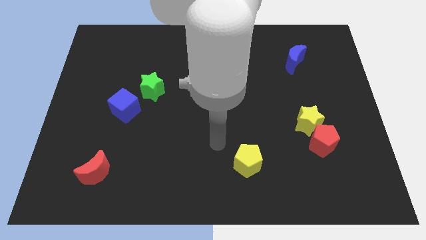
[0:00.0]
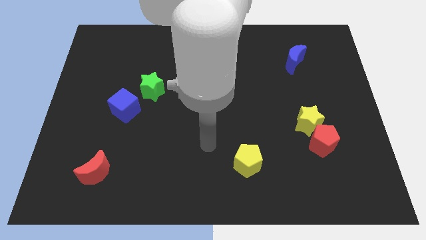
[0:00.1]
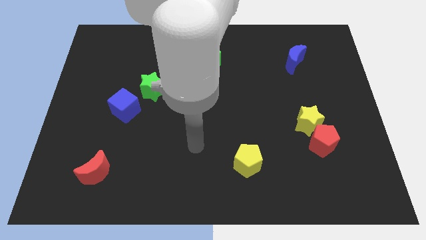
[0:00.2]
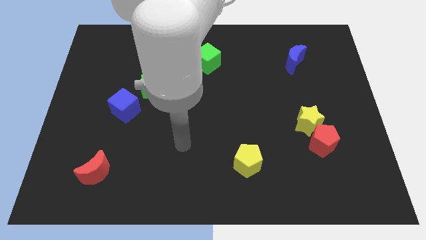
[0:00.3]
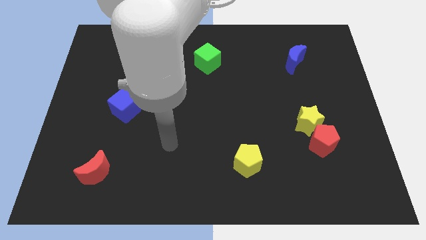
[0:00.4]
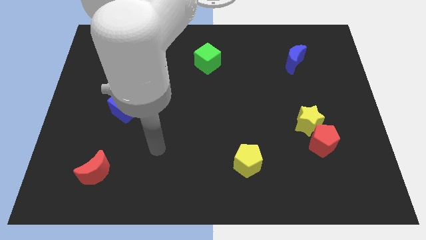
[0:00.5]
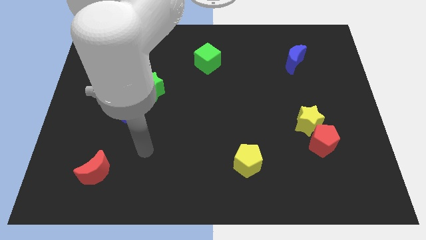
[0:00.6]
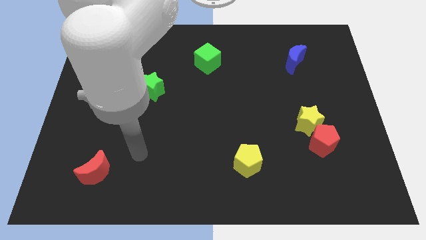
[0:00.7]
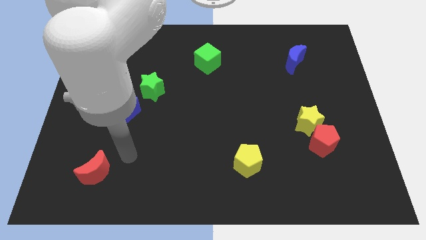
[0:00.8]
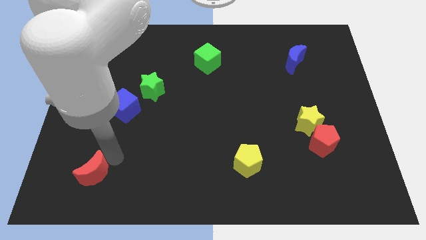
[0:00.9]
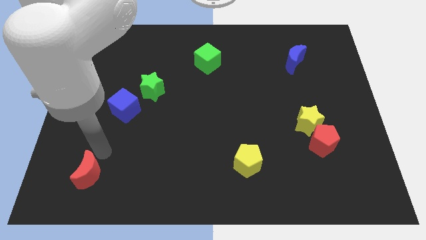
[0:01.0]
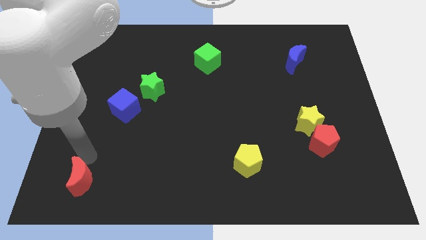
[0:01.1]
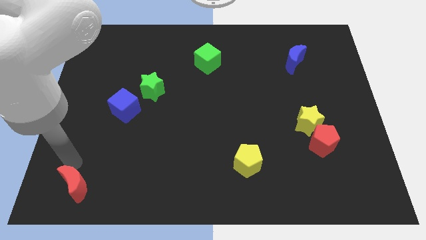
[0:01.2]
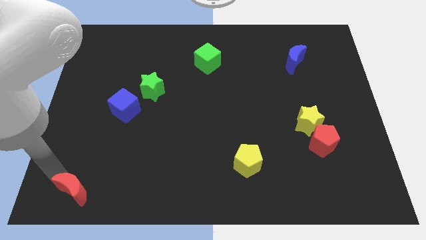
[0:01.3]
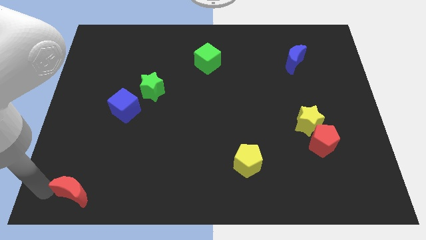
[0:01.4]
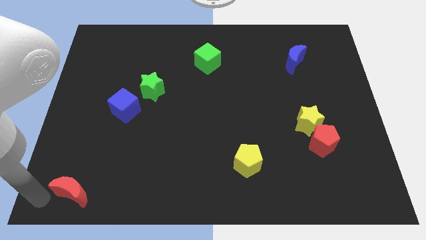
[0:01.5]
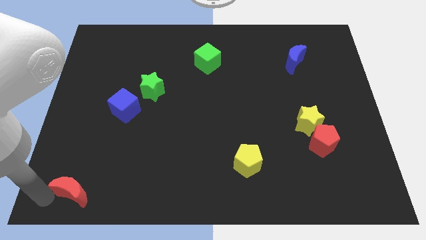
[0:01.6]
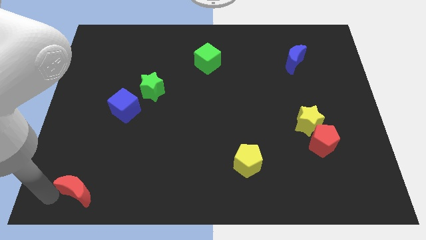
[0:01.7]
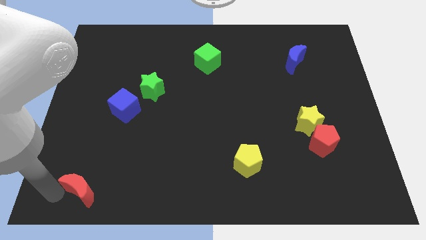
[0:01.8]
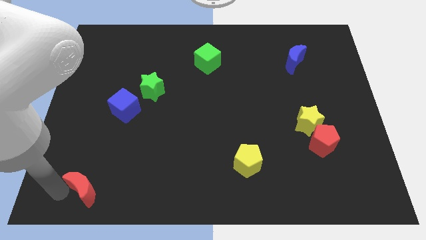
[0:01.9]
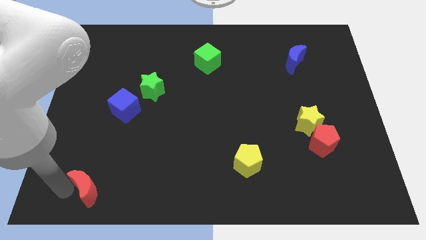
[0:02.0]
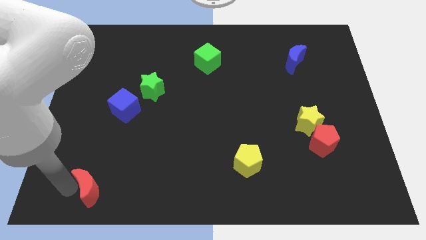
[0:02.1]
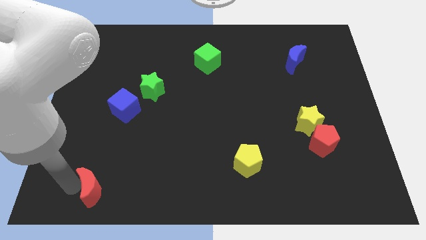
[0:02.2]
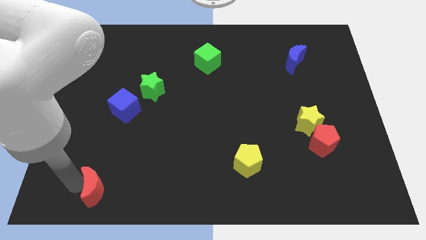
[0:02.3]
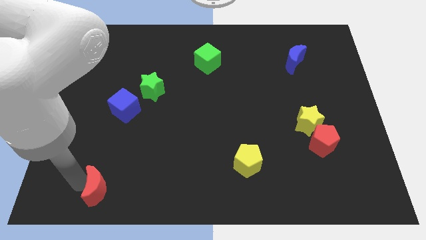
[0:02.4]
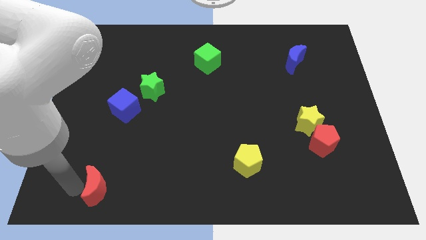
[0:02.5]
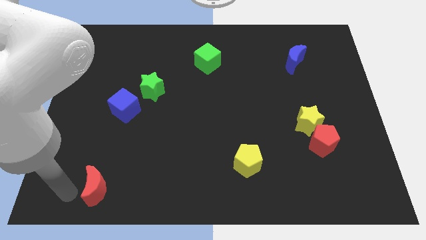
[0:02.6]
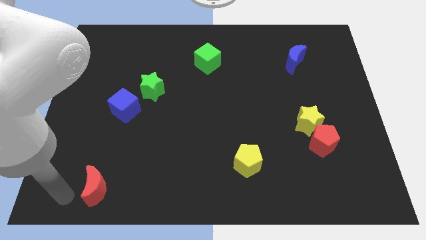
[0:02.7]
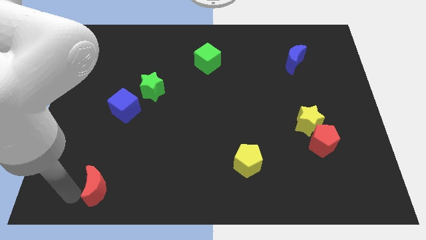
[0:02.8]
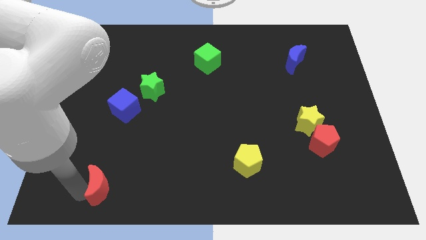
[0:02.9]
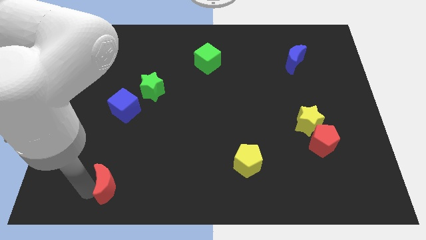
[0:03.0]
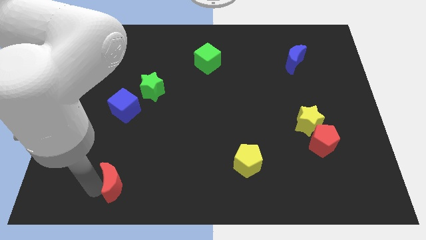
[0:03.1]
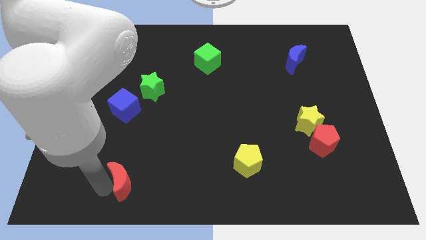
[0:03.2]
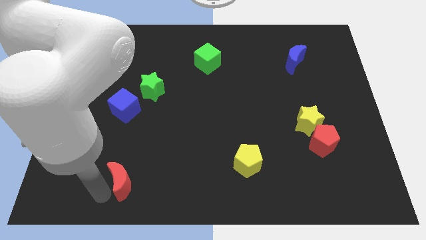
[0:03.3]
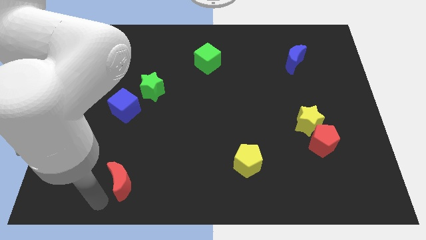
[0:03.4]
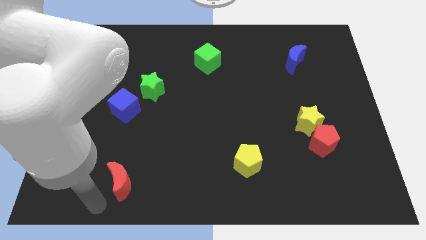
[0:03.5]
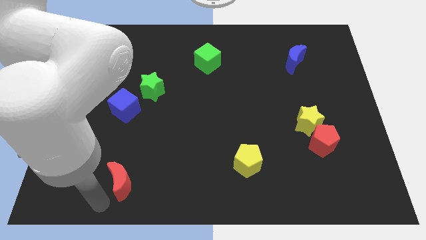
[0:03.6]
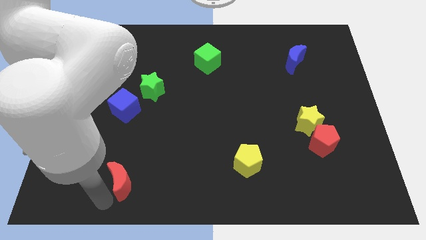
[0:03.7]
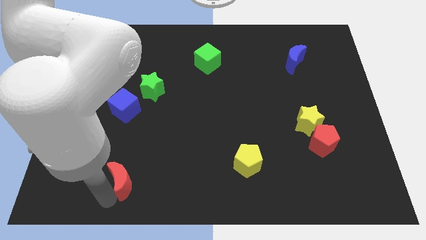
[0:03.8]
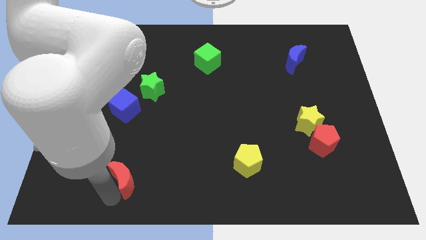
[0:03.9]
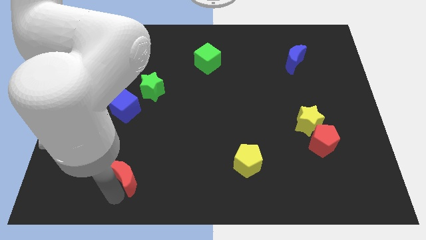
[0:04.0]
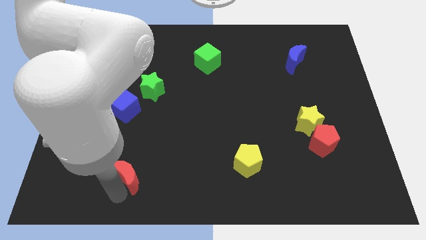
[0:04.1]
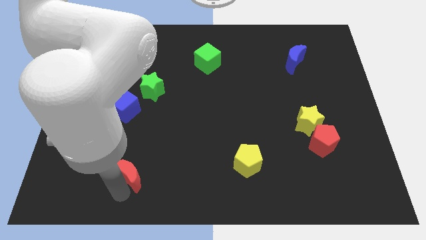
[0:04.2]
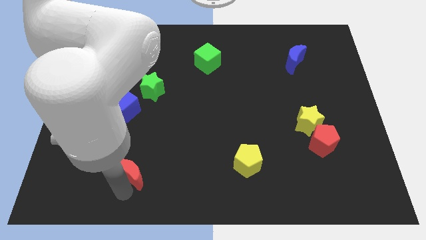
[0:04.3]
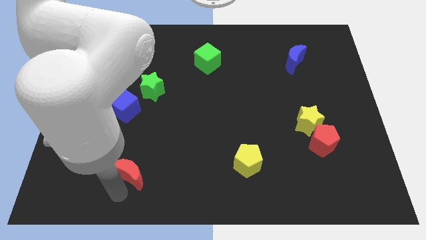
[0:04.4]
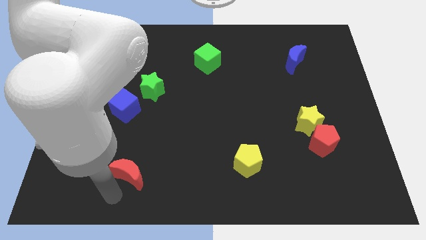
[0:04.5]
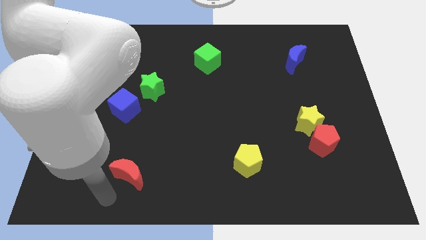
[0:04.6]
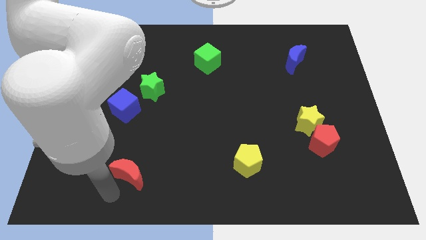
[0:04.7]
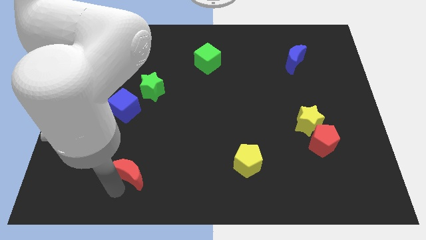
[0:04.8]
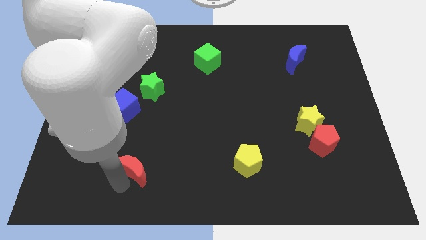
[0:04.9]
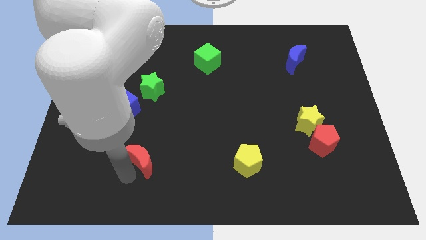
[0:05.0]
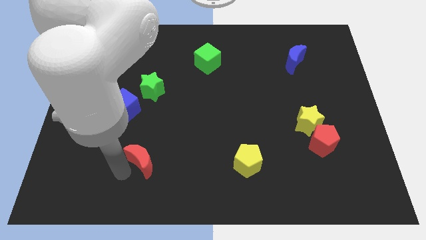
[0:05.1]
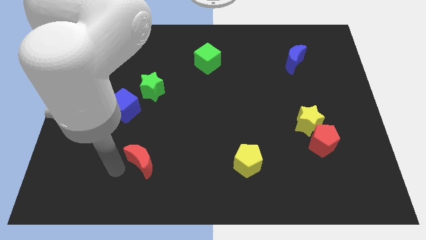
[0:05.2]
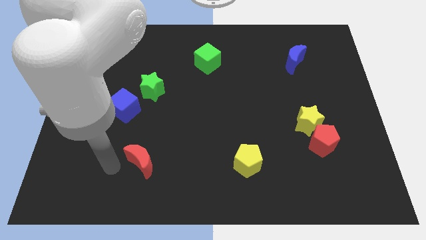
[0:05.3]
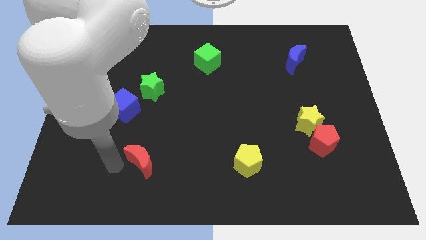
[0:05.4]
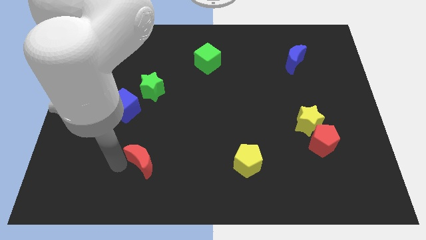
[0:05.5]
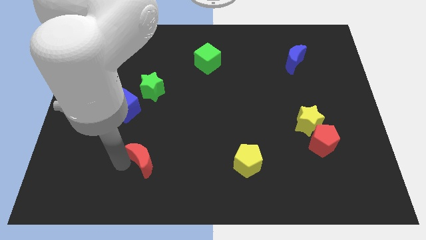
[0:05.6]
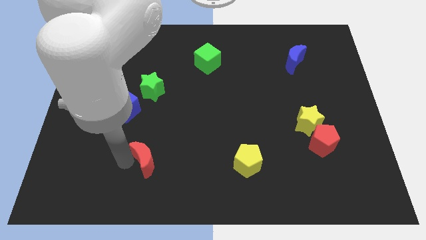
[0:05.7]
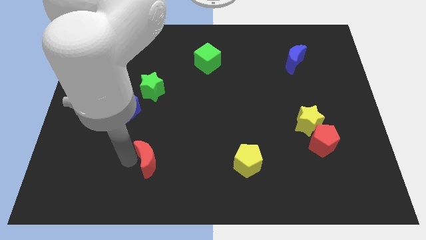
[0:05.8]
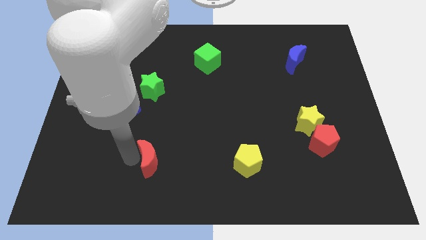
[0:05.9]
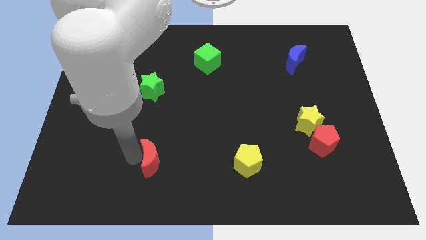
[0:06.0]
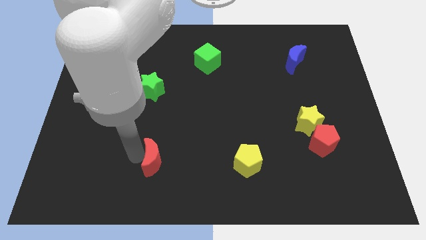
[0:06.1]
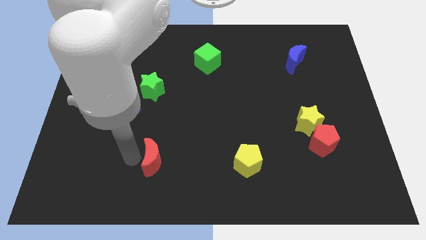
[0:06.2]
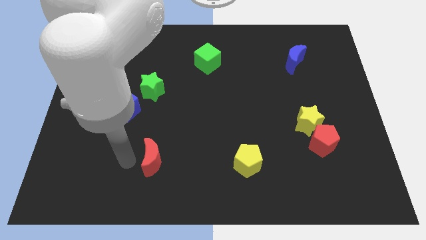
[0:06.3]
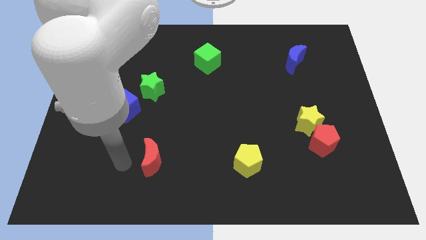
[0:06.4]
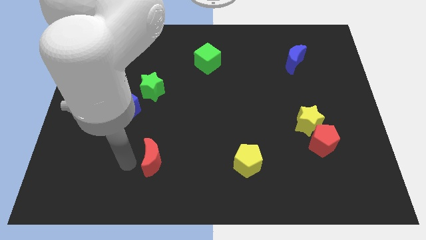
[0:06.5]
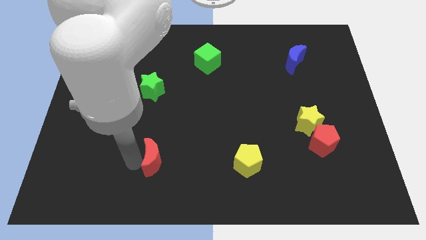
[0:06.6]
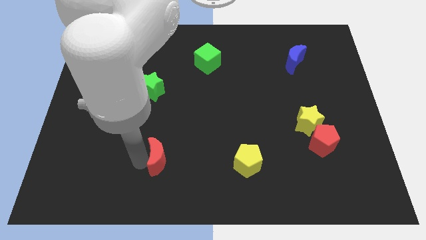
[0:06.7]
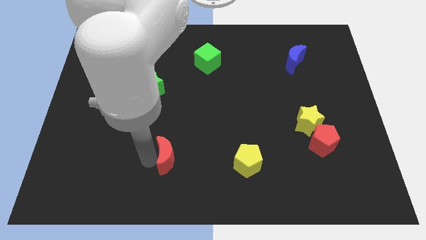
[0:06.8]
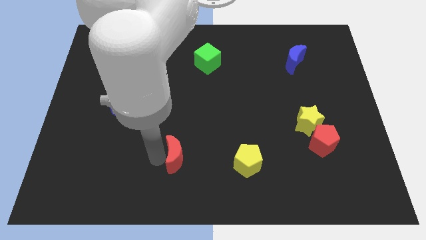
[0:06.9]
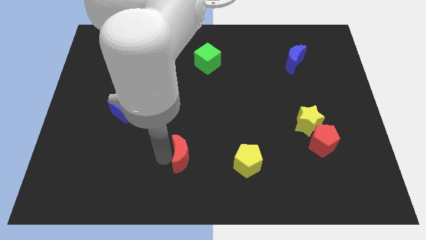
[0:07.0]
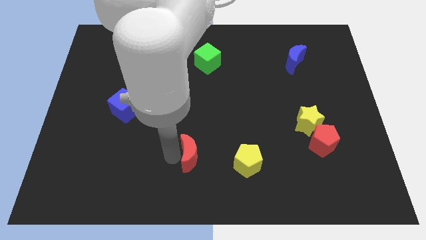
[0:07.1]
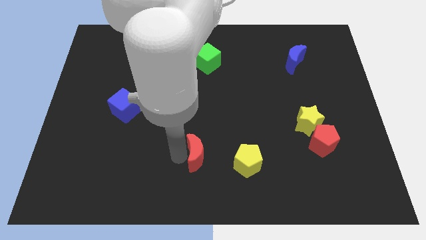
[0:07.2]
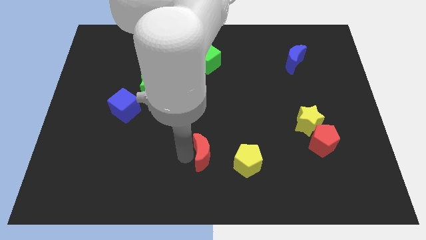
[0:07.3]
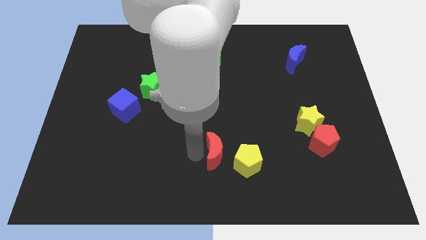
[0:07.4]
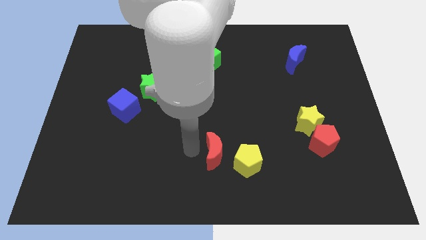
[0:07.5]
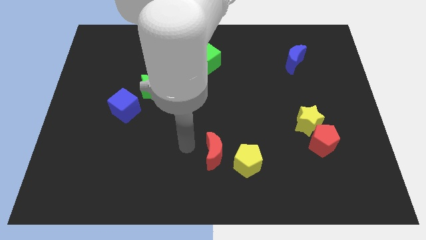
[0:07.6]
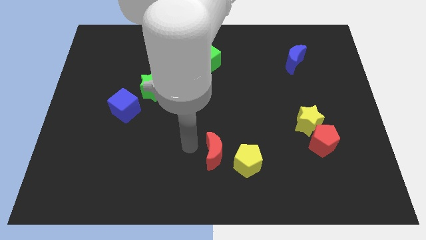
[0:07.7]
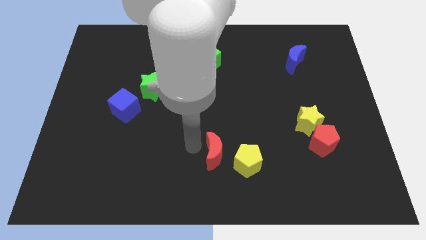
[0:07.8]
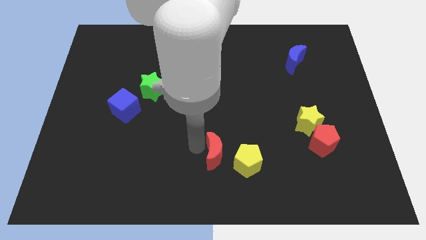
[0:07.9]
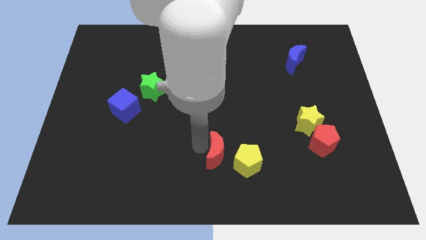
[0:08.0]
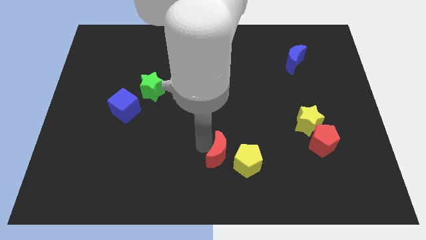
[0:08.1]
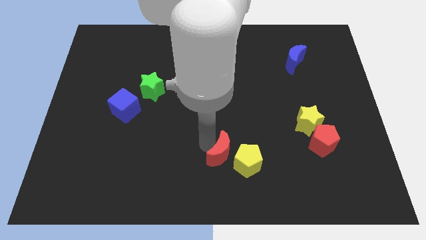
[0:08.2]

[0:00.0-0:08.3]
move the red moon next to the yellow pentagon
